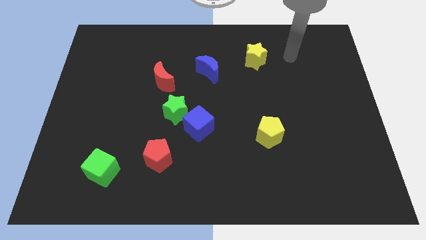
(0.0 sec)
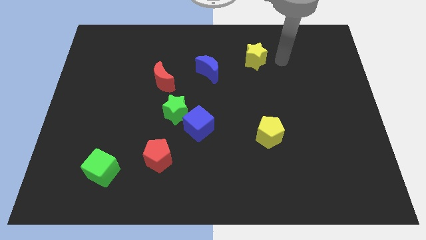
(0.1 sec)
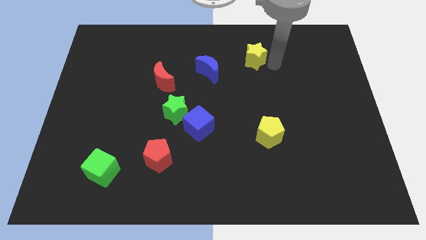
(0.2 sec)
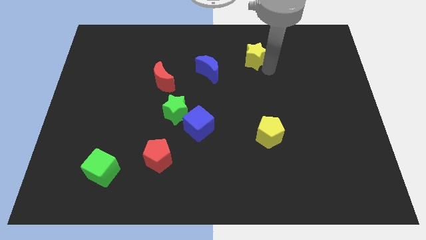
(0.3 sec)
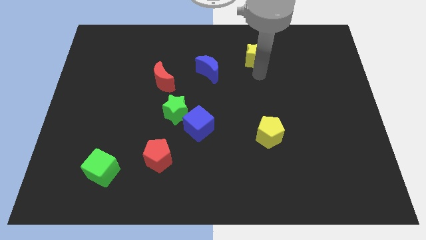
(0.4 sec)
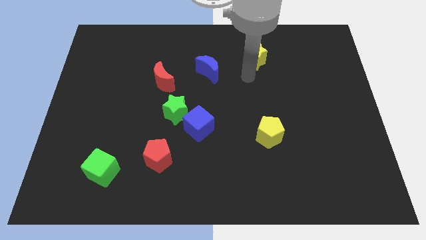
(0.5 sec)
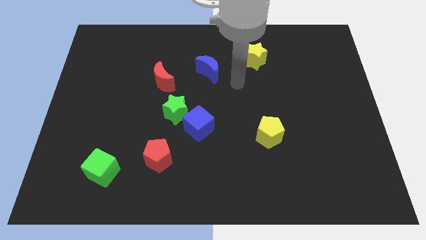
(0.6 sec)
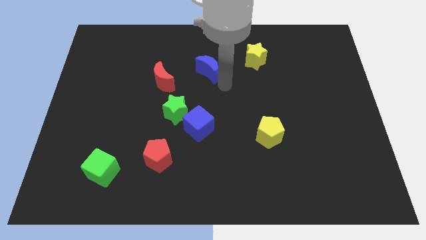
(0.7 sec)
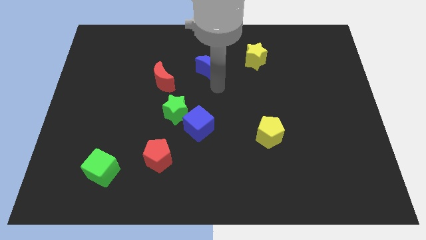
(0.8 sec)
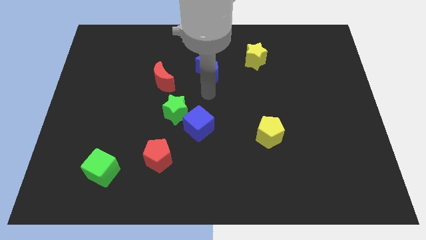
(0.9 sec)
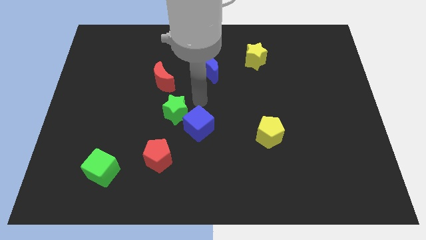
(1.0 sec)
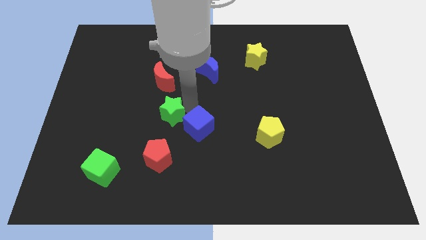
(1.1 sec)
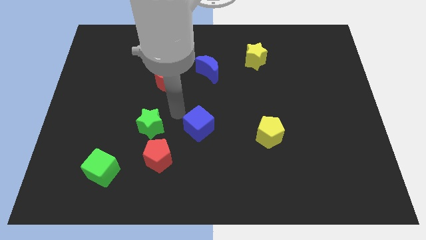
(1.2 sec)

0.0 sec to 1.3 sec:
move the blue cube away from the green star

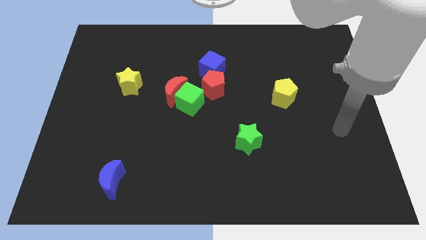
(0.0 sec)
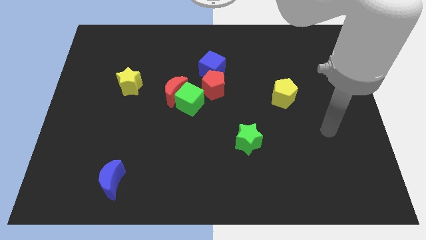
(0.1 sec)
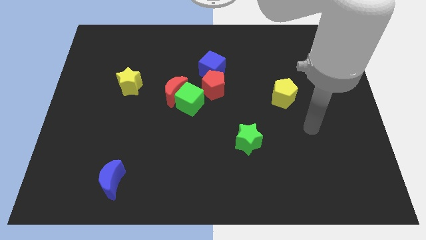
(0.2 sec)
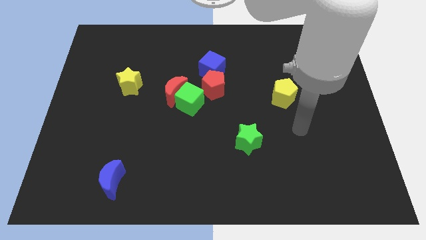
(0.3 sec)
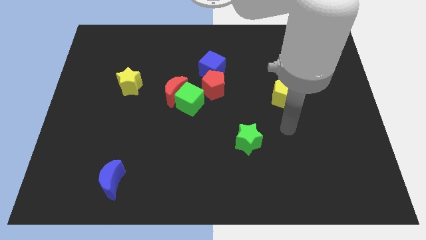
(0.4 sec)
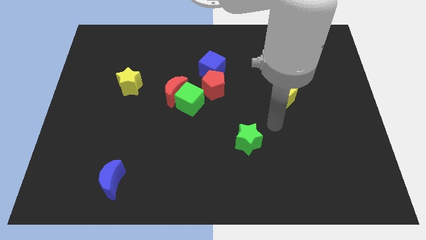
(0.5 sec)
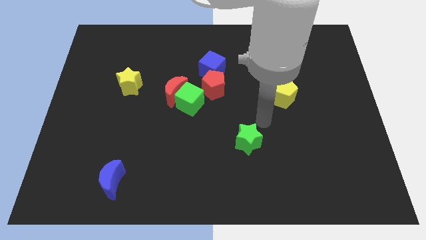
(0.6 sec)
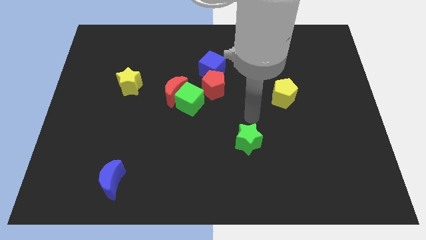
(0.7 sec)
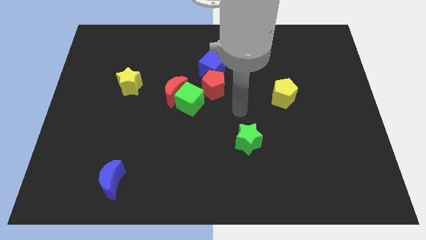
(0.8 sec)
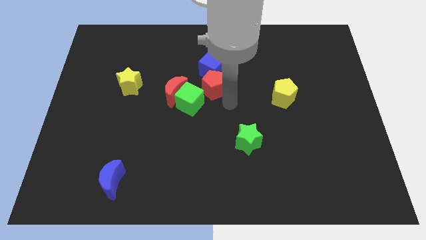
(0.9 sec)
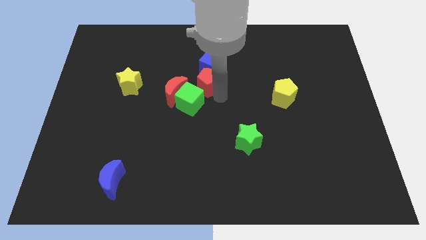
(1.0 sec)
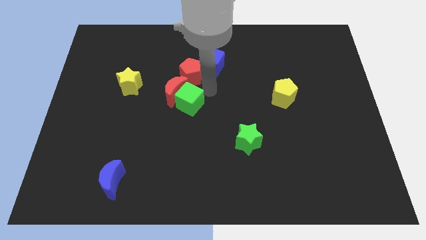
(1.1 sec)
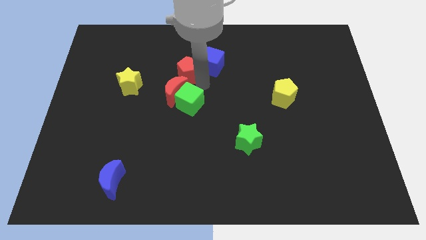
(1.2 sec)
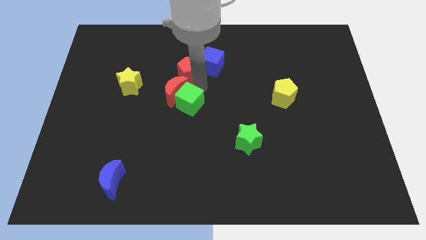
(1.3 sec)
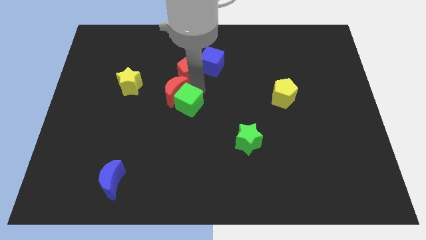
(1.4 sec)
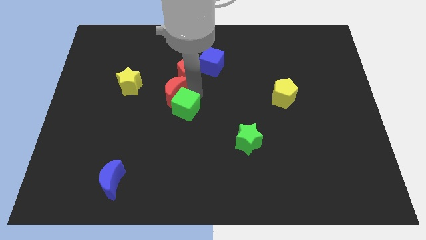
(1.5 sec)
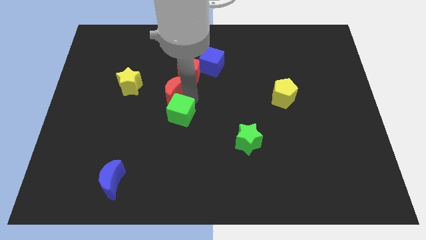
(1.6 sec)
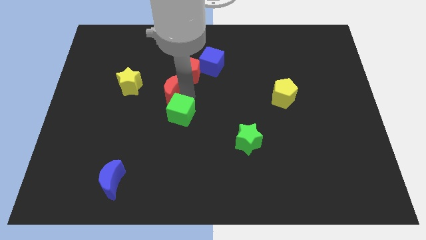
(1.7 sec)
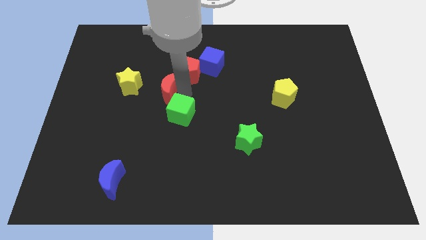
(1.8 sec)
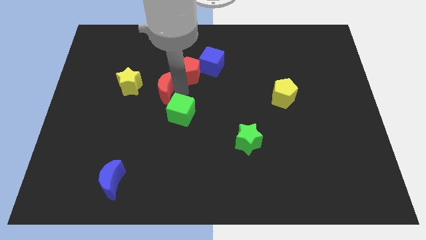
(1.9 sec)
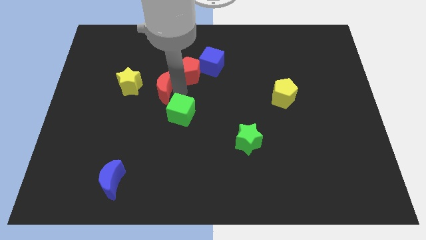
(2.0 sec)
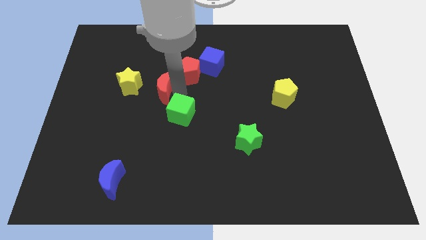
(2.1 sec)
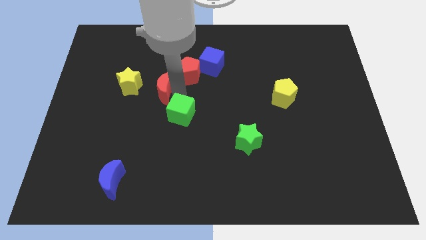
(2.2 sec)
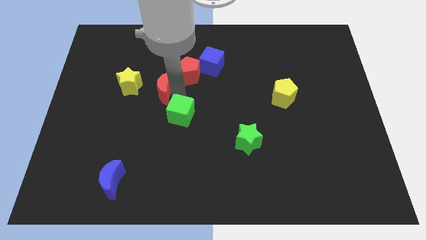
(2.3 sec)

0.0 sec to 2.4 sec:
separate the green cube from the red moon and red pentagon

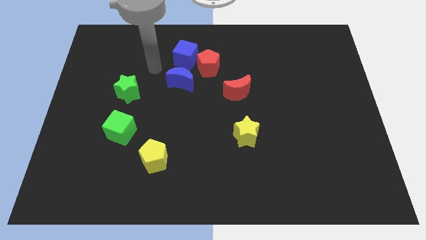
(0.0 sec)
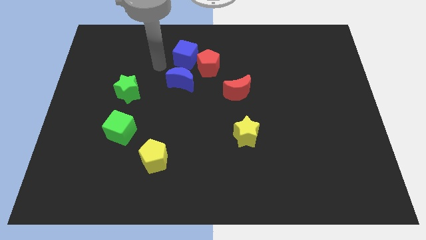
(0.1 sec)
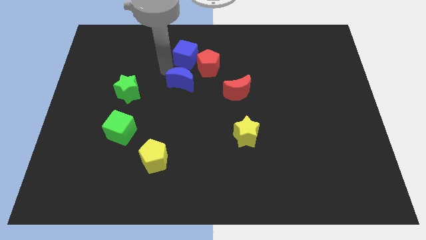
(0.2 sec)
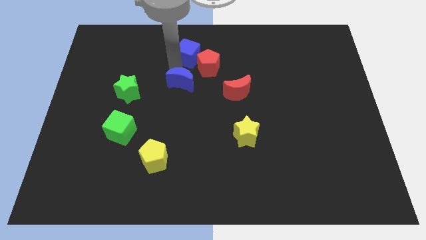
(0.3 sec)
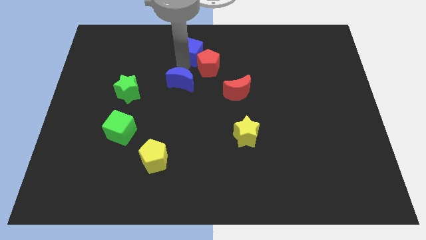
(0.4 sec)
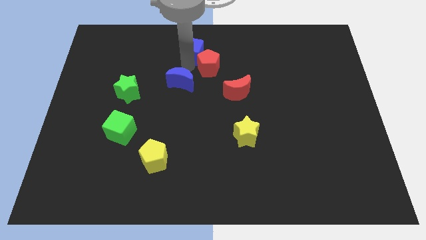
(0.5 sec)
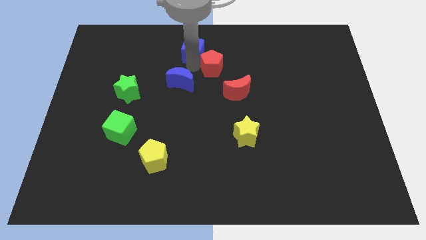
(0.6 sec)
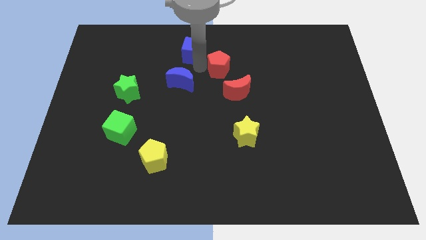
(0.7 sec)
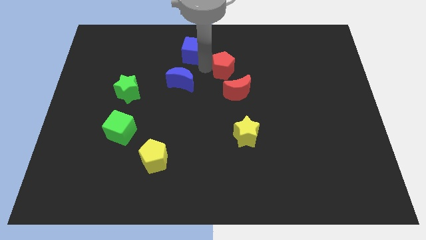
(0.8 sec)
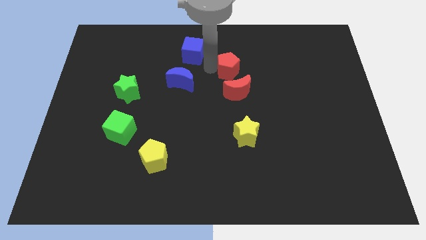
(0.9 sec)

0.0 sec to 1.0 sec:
pull the red pentagon apart from the blue cube and blue moon

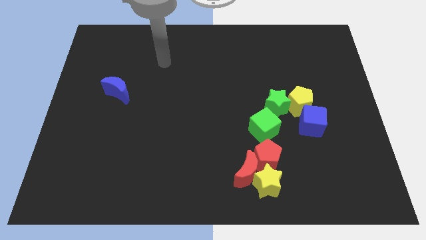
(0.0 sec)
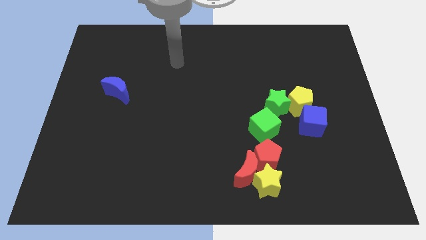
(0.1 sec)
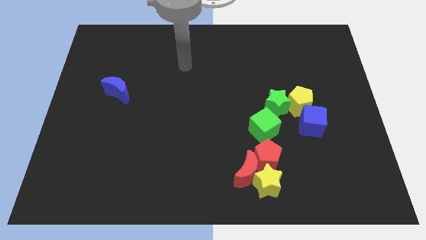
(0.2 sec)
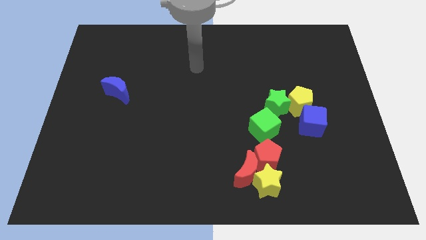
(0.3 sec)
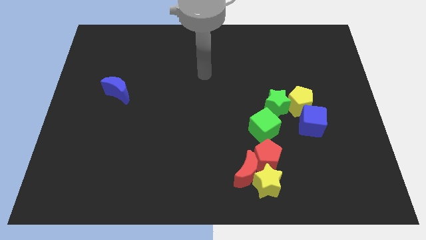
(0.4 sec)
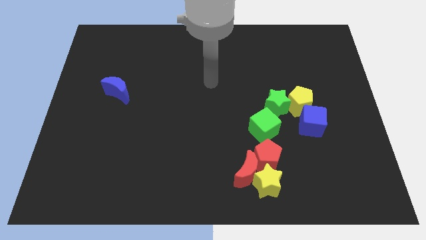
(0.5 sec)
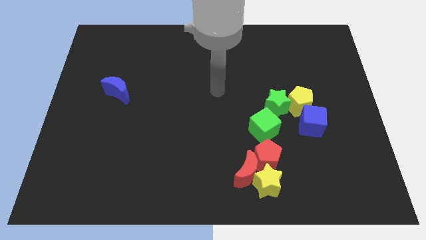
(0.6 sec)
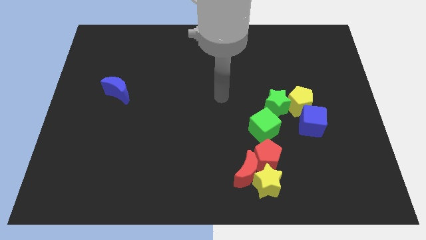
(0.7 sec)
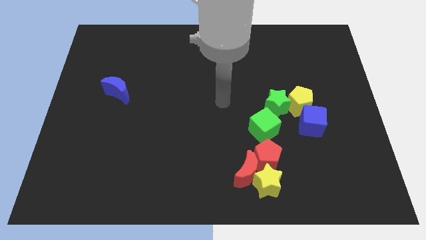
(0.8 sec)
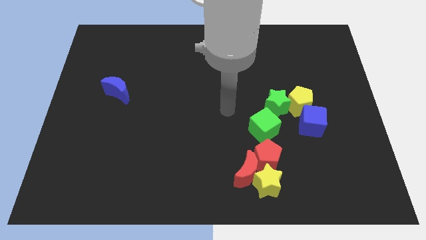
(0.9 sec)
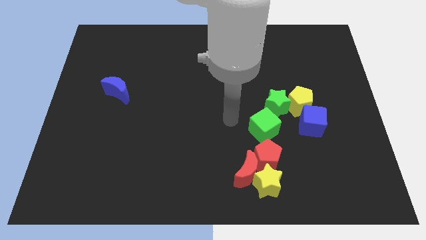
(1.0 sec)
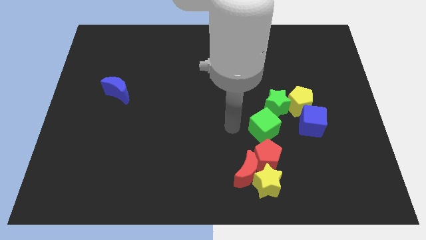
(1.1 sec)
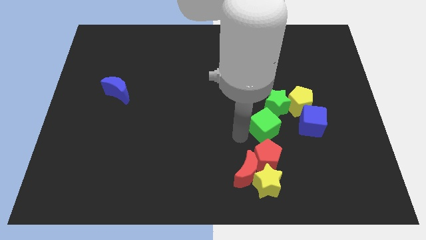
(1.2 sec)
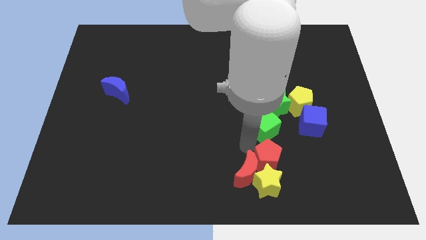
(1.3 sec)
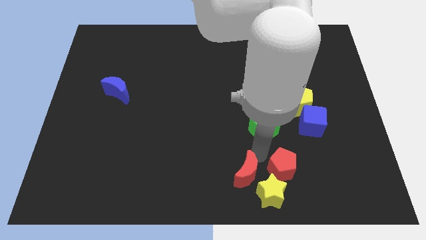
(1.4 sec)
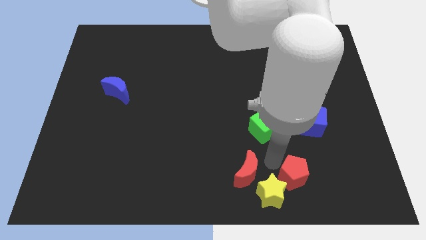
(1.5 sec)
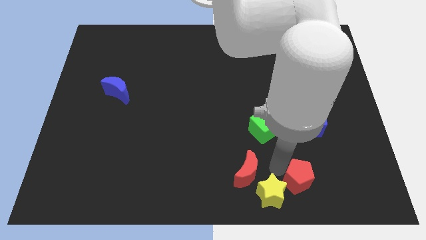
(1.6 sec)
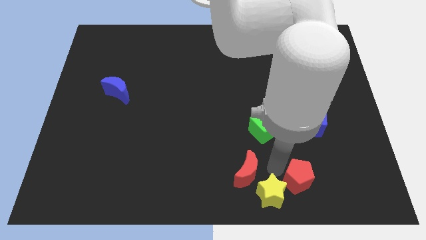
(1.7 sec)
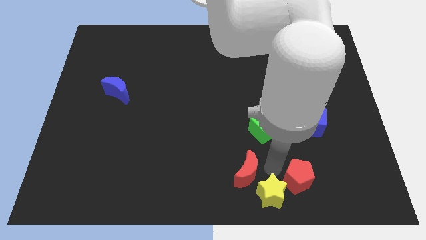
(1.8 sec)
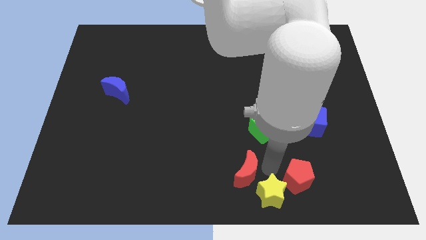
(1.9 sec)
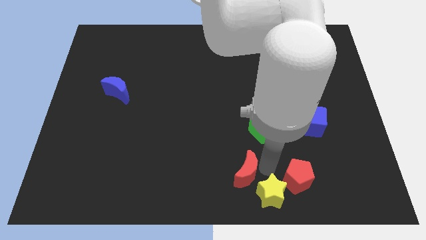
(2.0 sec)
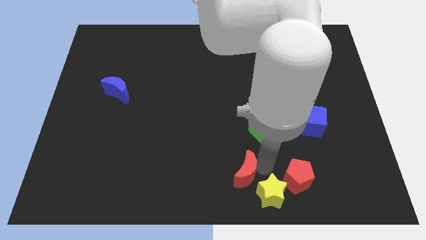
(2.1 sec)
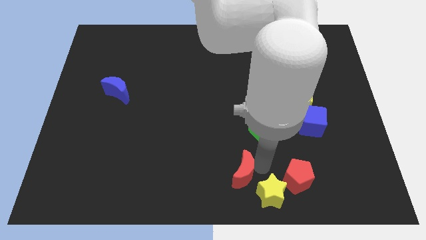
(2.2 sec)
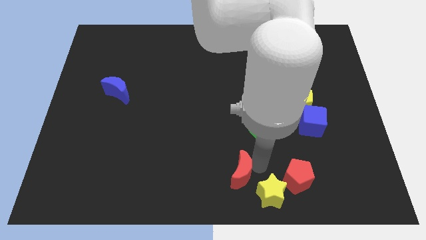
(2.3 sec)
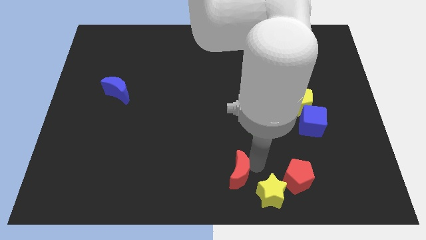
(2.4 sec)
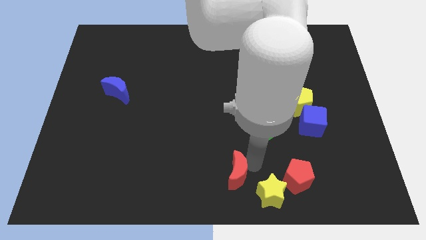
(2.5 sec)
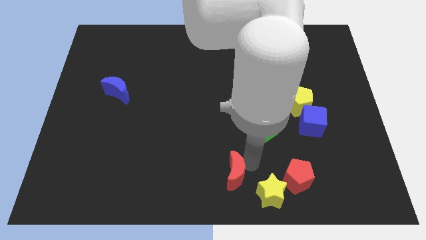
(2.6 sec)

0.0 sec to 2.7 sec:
separate the red moon from the yellow star and red pentagon

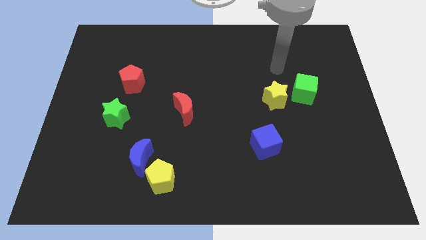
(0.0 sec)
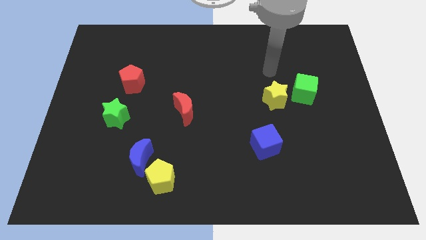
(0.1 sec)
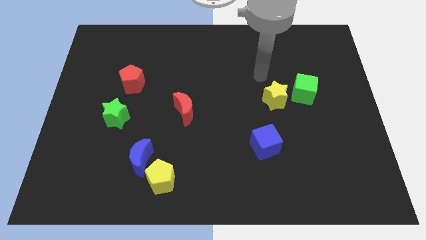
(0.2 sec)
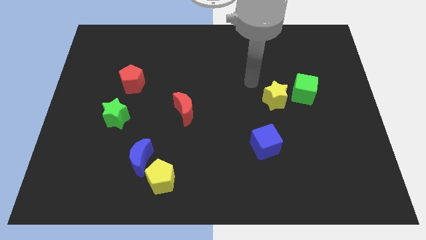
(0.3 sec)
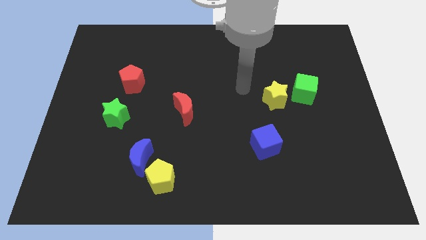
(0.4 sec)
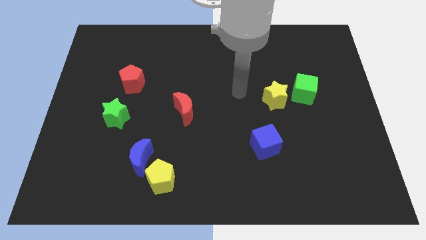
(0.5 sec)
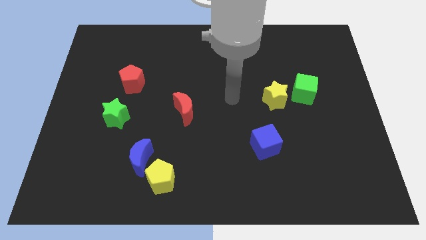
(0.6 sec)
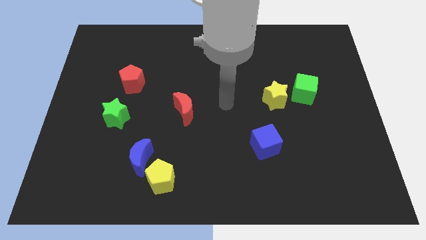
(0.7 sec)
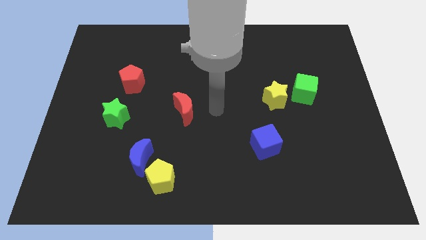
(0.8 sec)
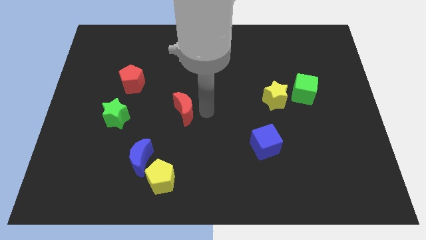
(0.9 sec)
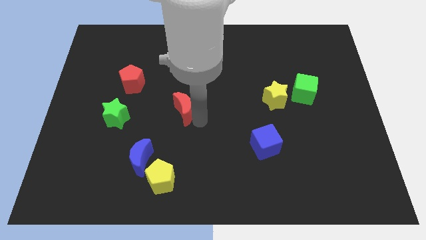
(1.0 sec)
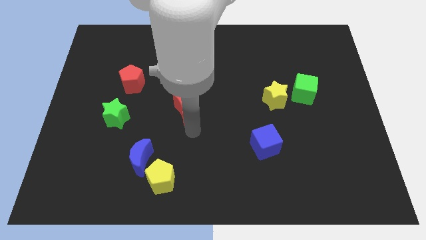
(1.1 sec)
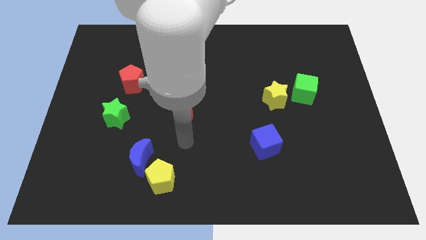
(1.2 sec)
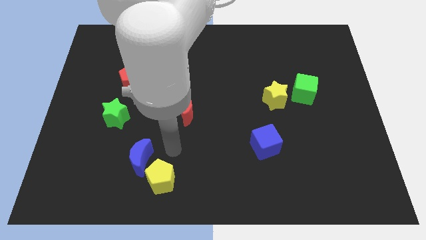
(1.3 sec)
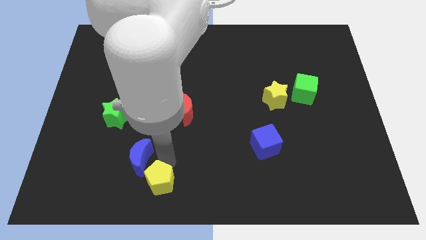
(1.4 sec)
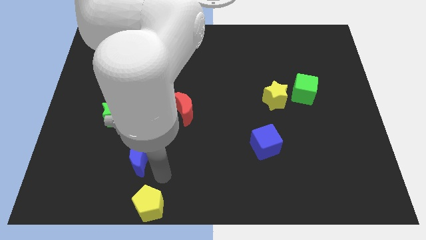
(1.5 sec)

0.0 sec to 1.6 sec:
separate the blue moon from the yellow pentagon

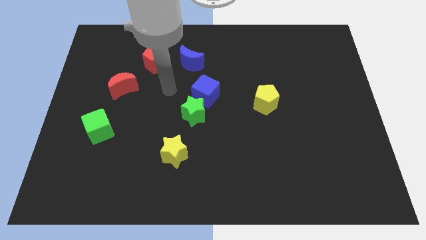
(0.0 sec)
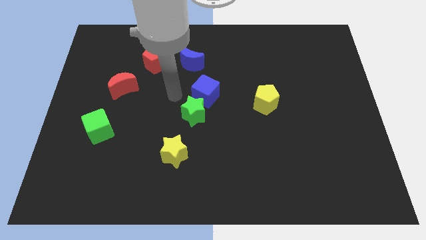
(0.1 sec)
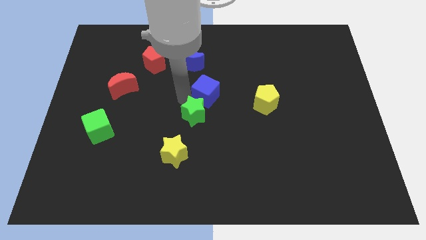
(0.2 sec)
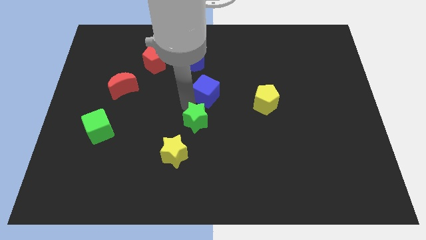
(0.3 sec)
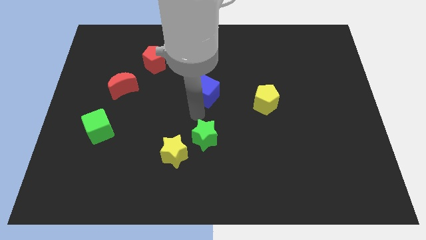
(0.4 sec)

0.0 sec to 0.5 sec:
pull the blue cube apart from the green star
